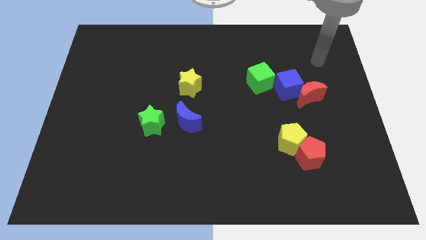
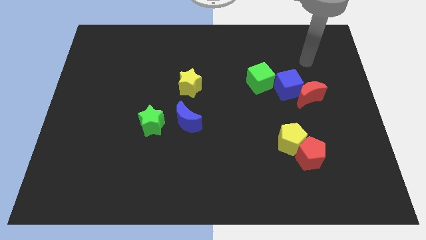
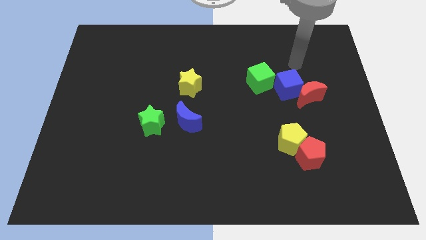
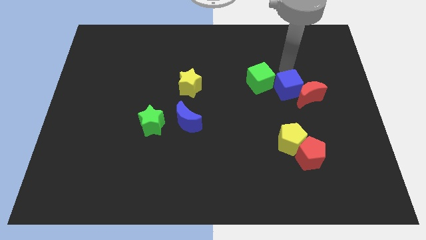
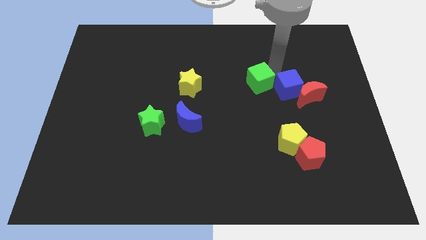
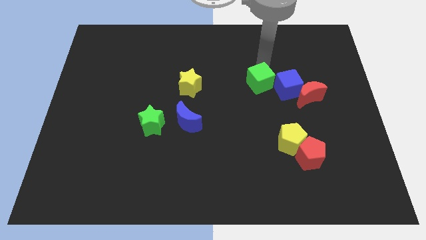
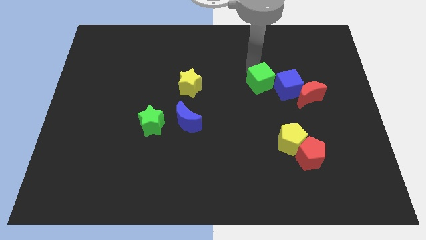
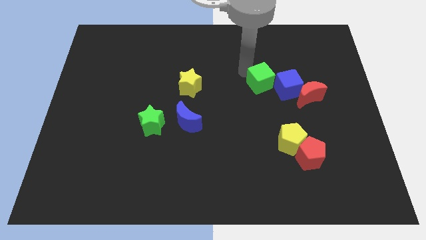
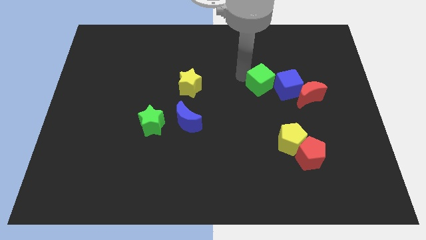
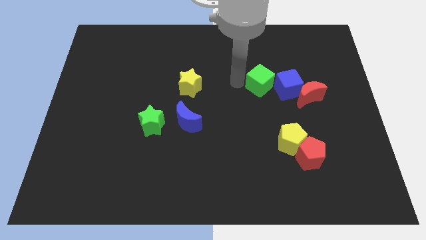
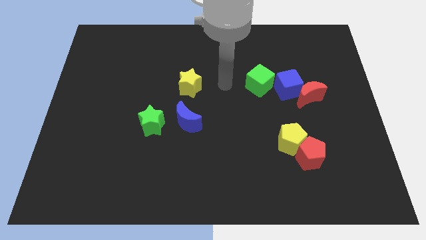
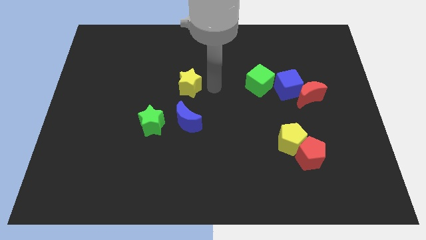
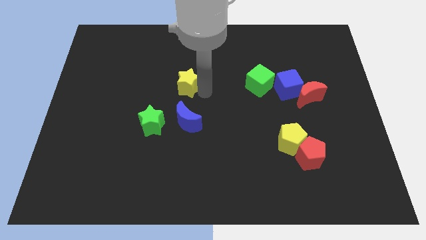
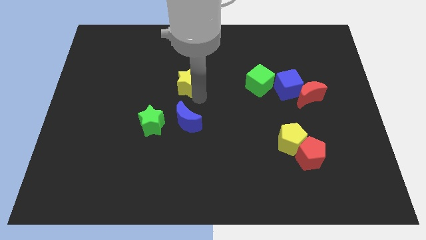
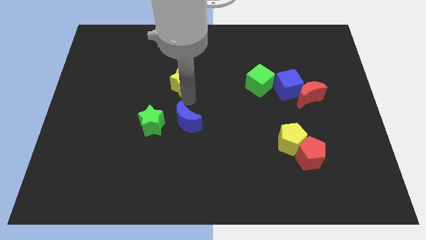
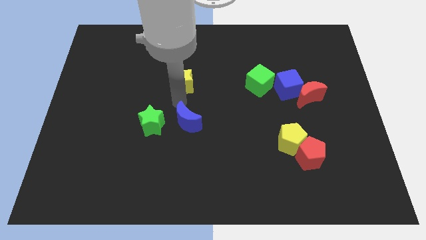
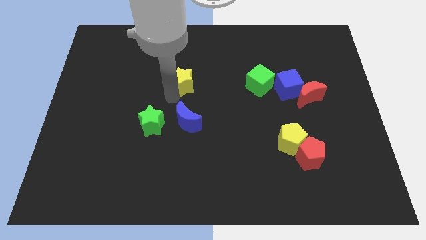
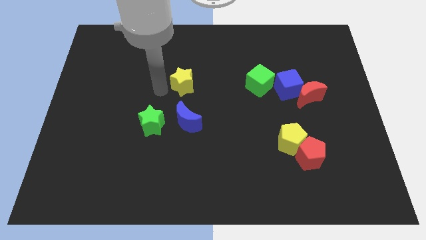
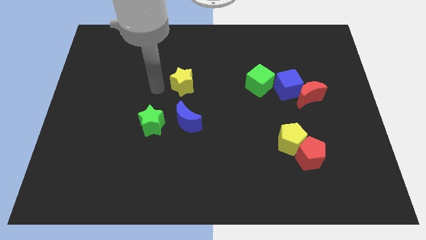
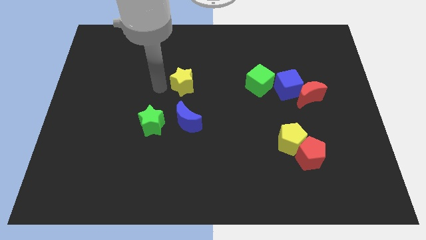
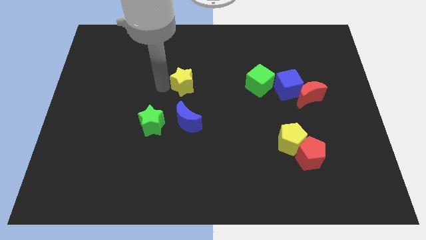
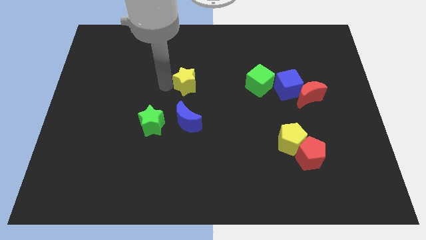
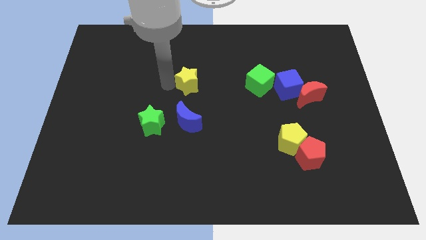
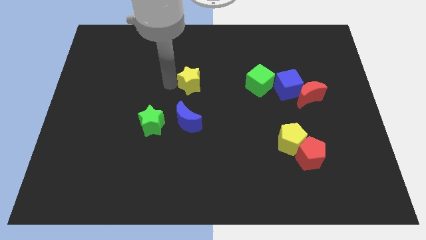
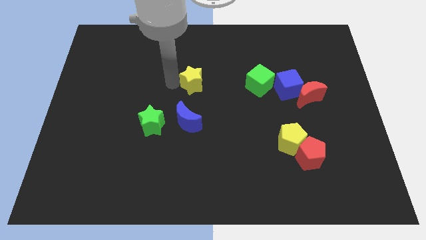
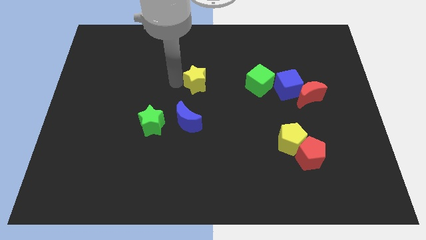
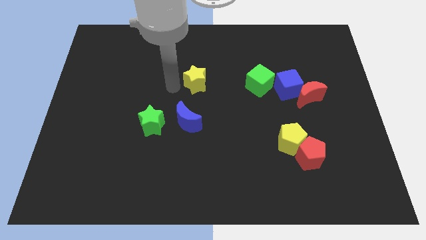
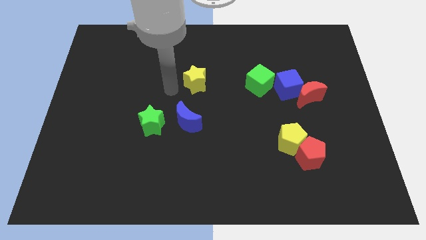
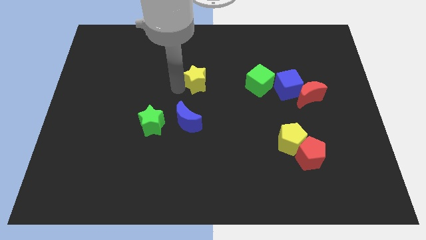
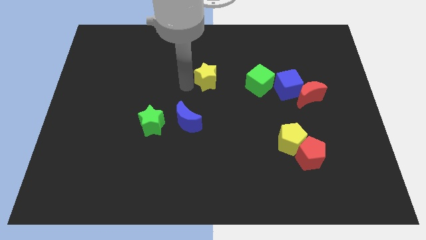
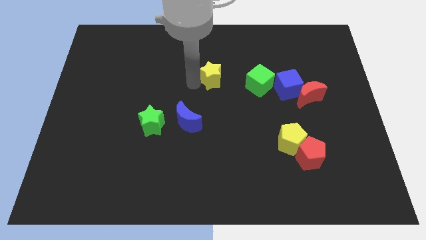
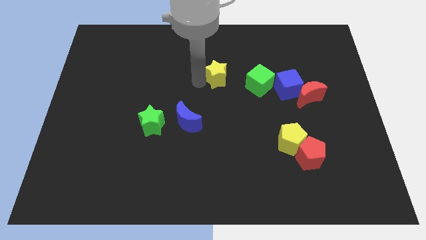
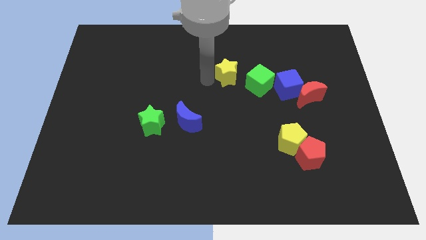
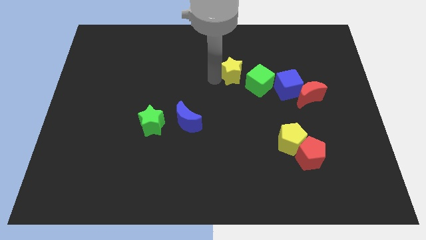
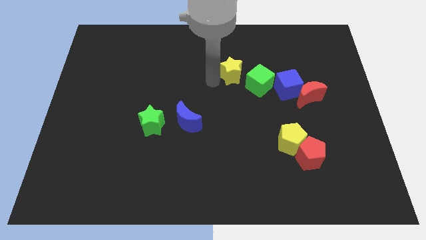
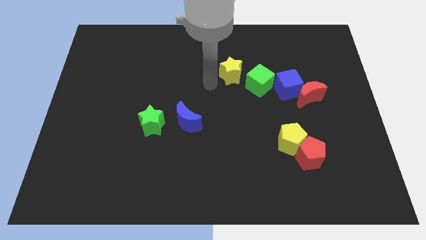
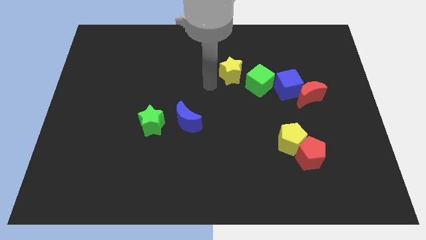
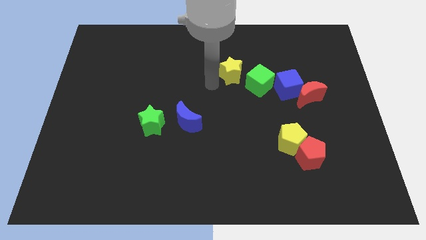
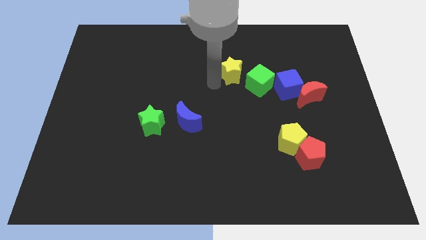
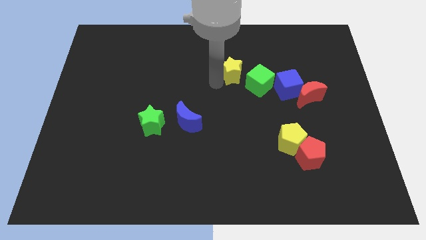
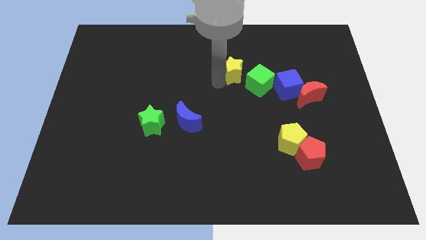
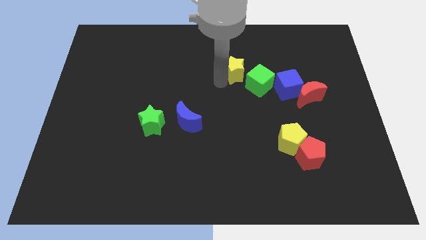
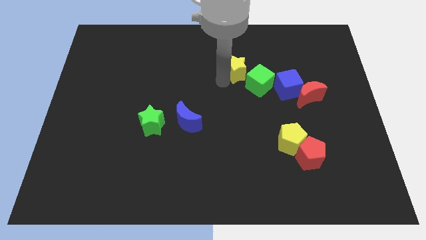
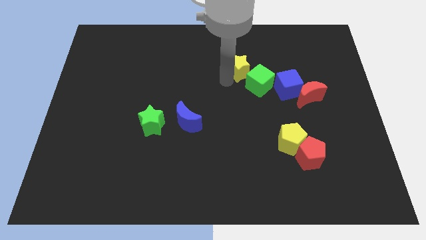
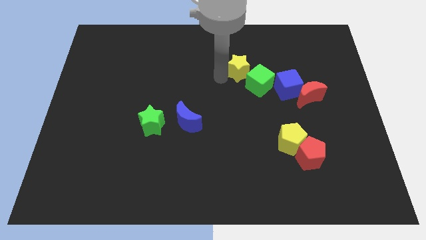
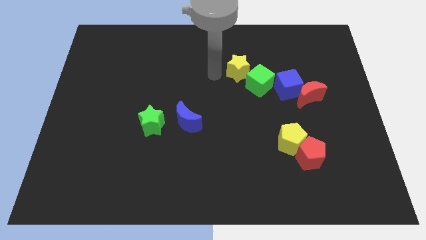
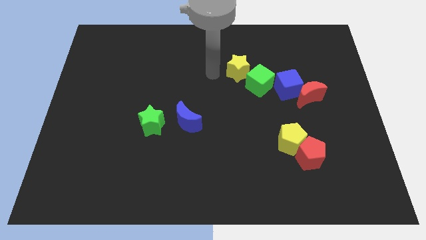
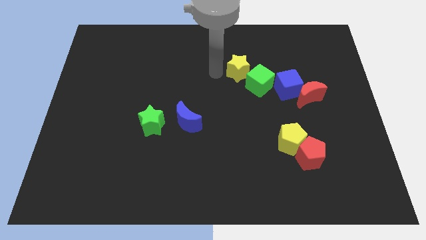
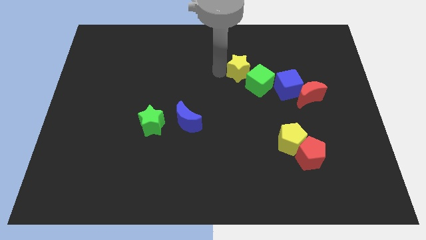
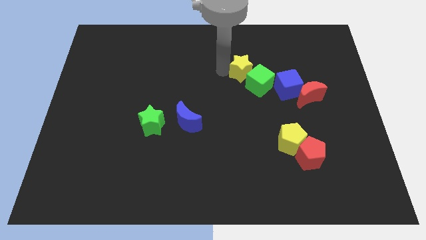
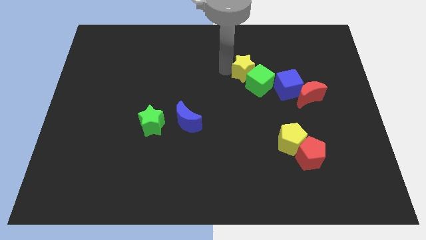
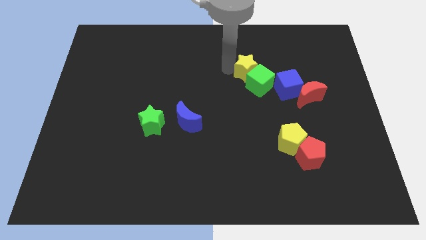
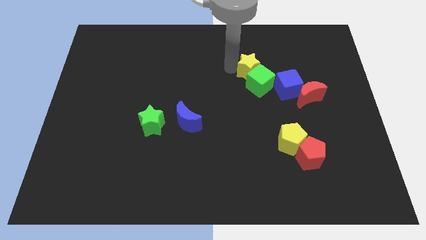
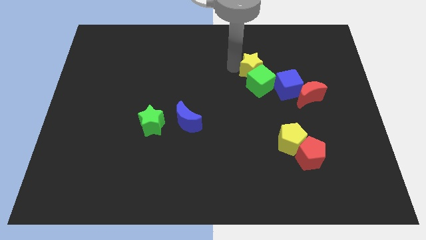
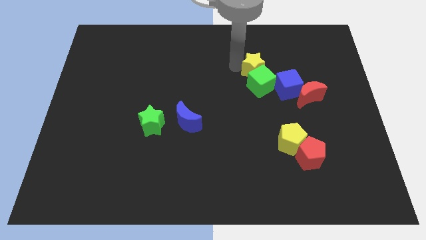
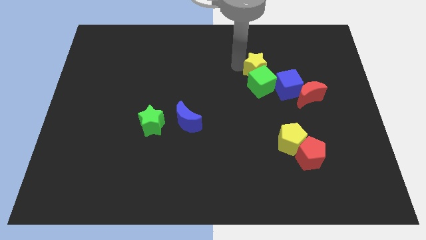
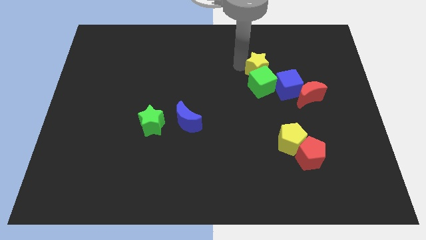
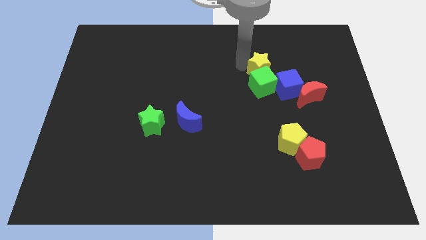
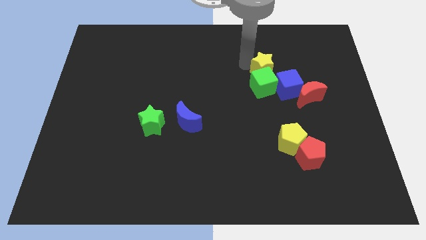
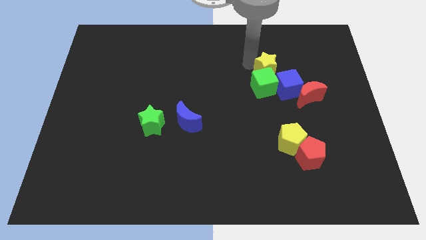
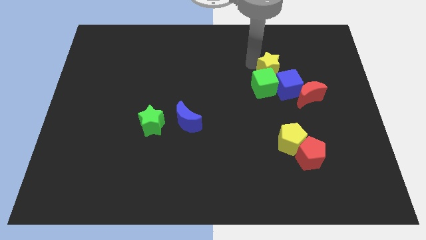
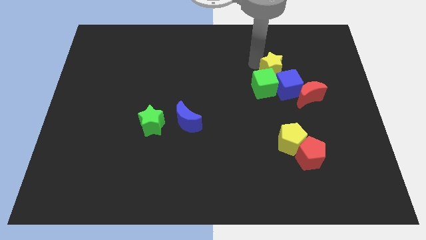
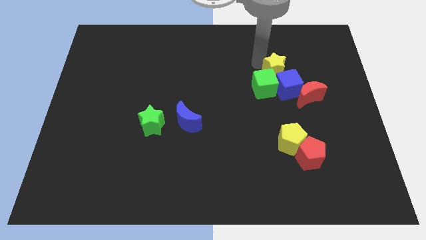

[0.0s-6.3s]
slide the yellow star to the right

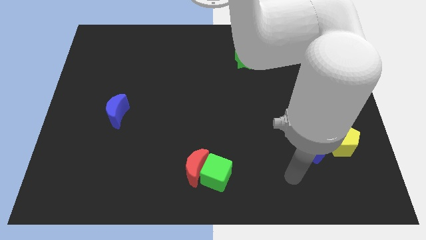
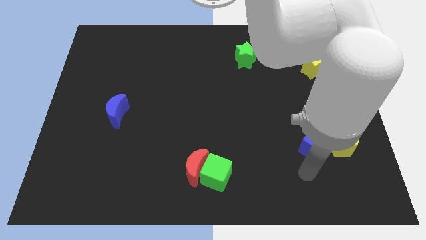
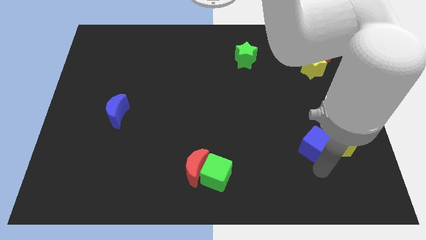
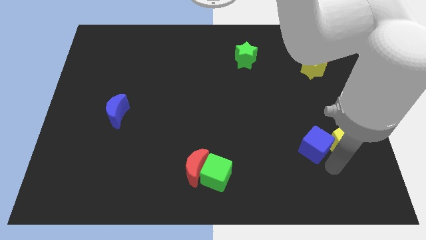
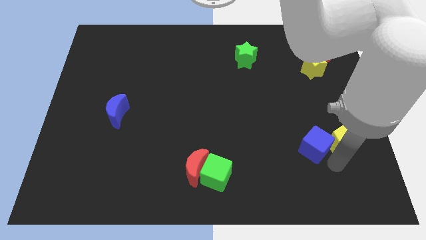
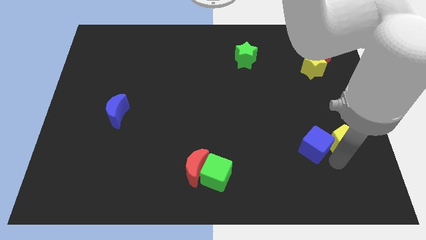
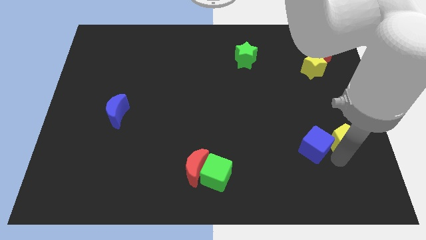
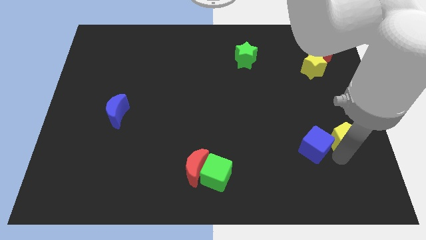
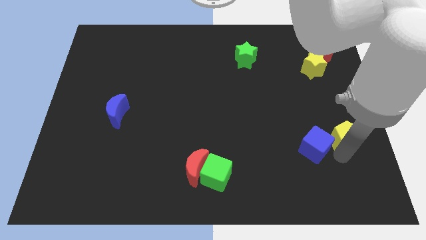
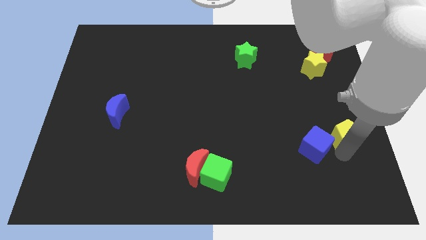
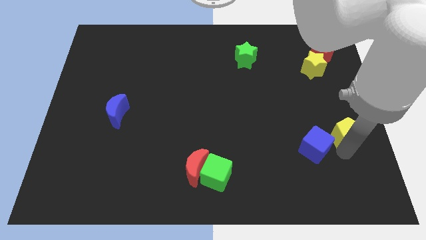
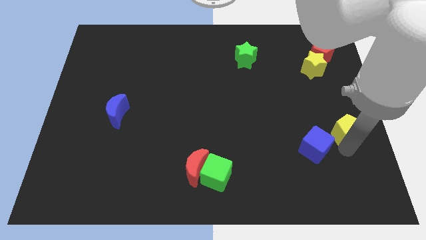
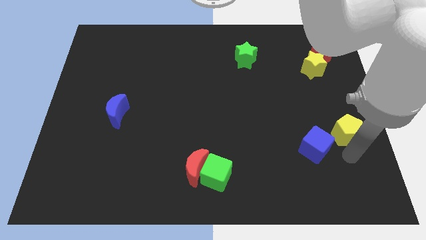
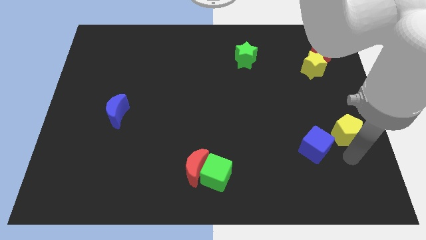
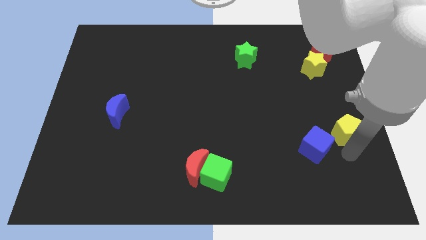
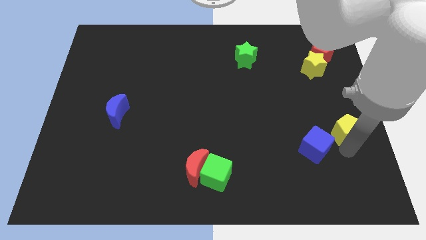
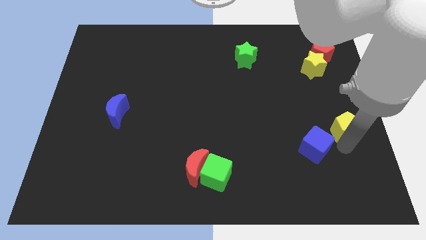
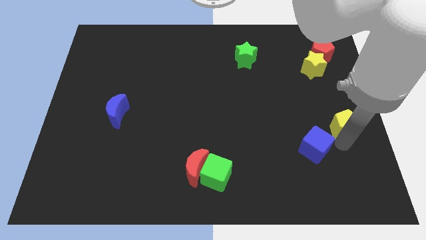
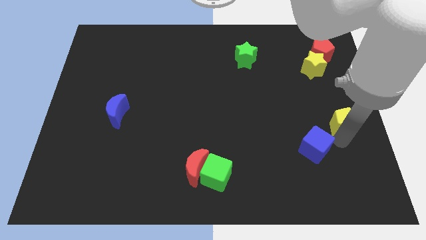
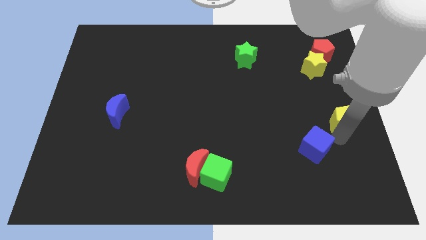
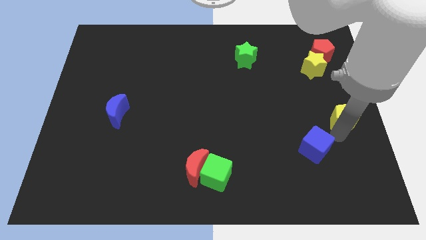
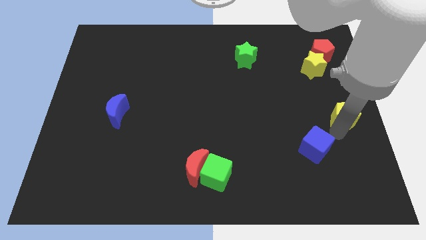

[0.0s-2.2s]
slide the yellow pentagon up a little bit
